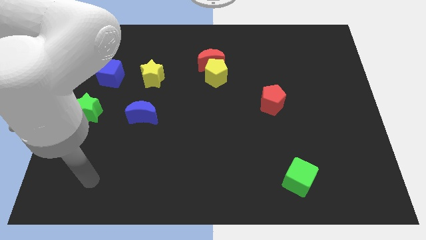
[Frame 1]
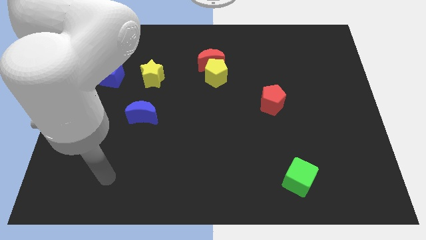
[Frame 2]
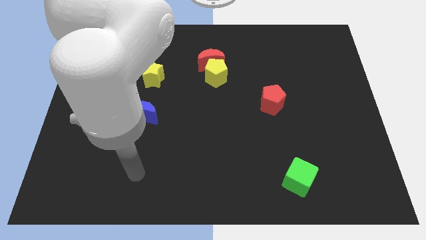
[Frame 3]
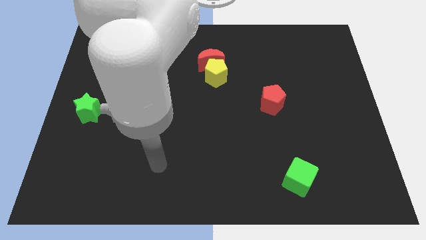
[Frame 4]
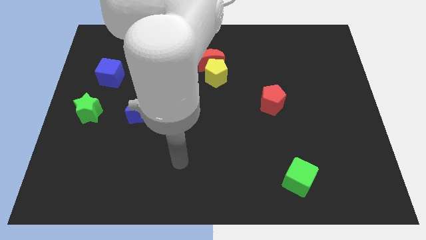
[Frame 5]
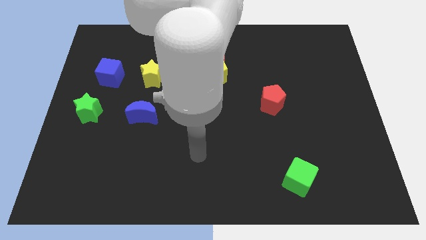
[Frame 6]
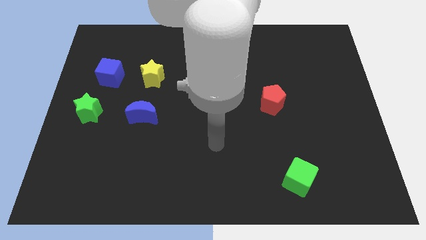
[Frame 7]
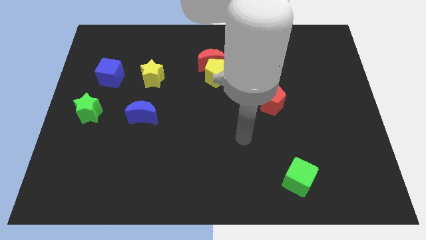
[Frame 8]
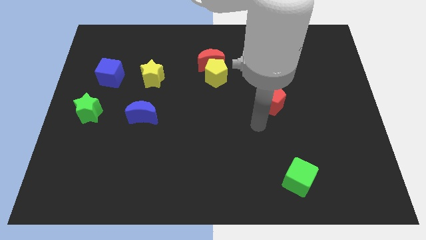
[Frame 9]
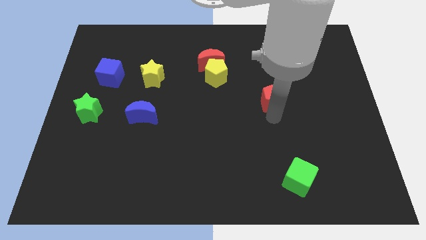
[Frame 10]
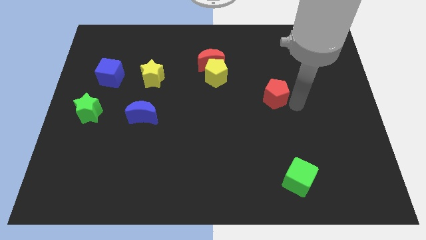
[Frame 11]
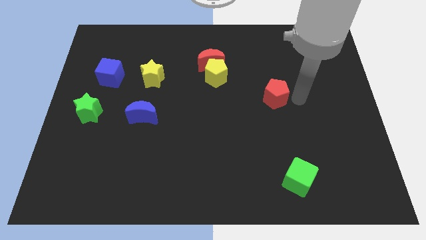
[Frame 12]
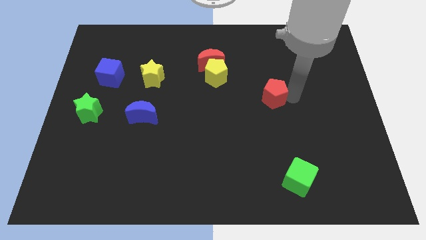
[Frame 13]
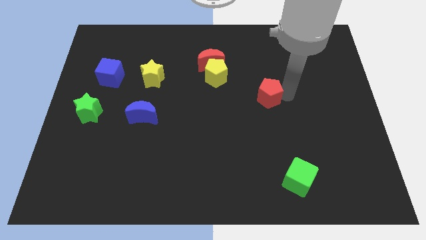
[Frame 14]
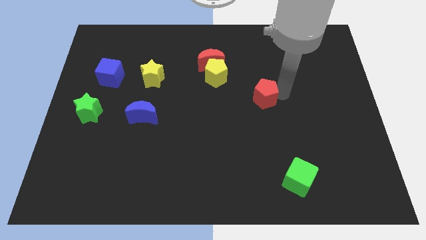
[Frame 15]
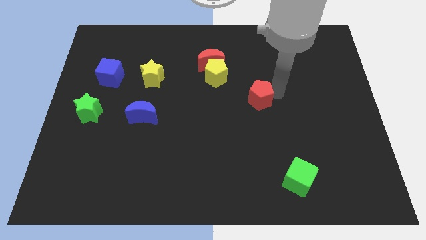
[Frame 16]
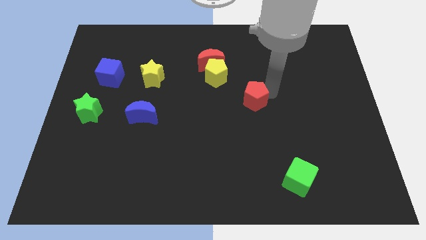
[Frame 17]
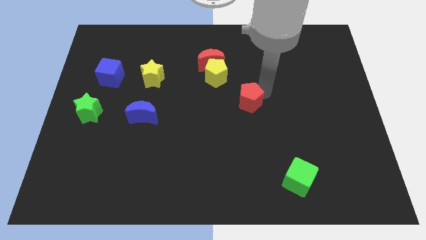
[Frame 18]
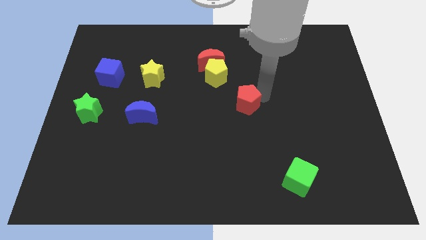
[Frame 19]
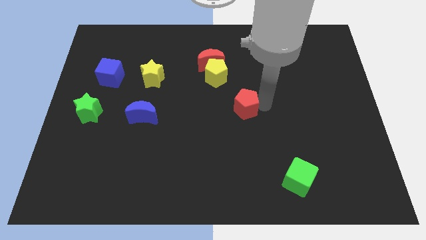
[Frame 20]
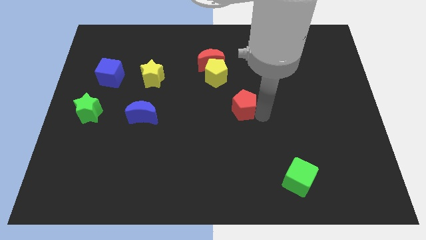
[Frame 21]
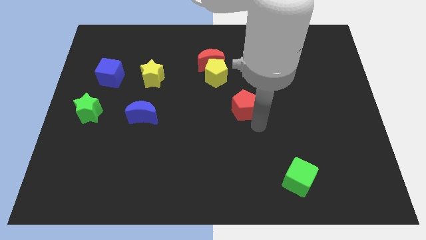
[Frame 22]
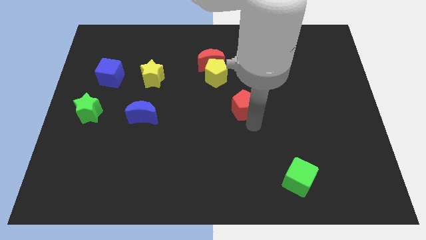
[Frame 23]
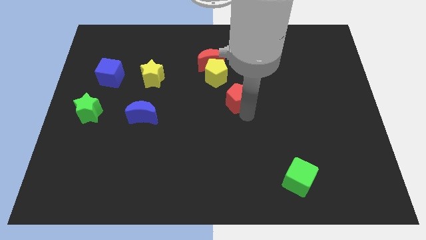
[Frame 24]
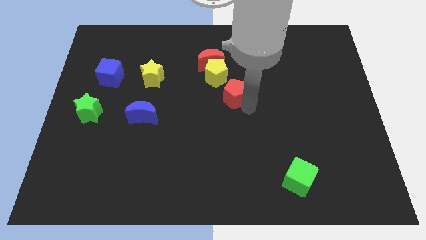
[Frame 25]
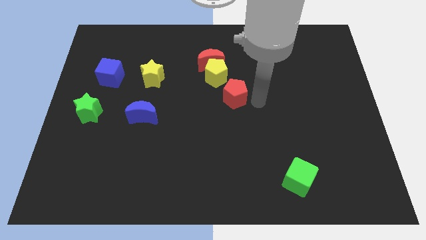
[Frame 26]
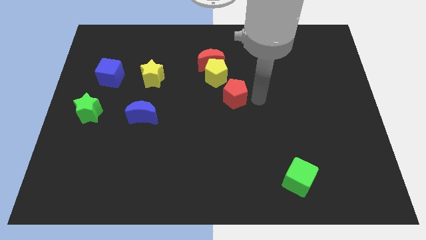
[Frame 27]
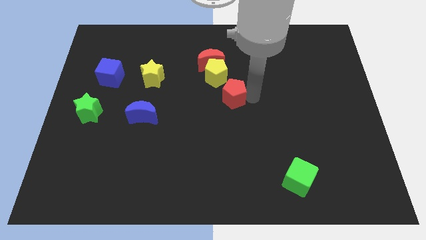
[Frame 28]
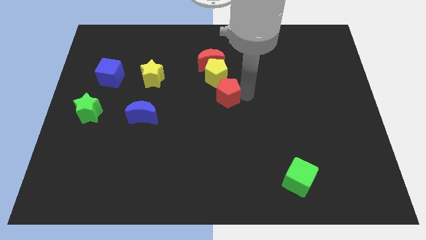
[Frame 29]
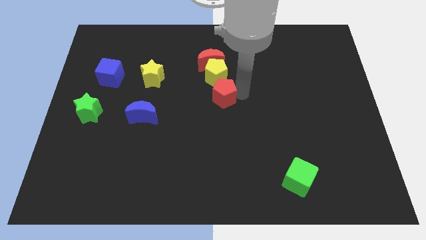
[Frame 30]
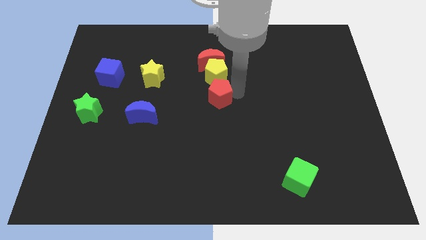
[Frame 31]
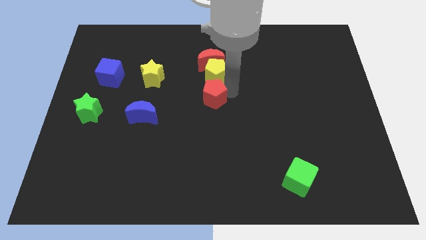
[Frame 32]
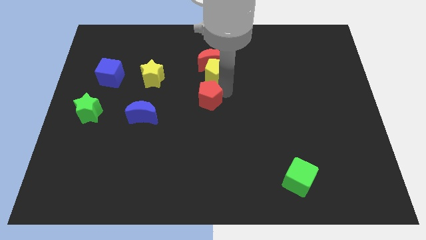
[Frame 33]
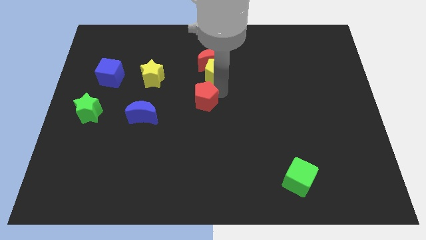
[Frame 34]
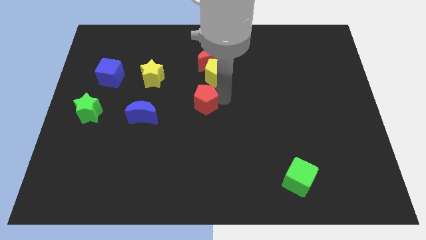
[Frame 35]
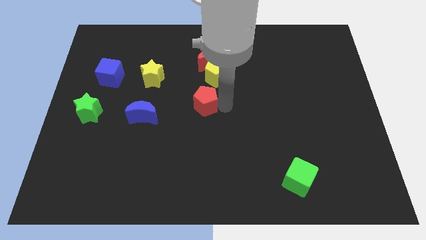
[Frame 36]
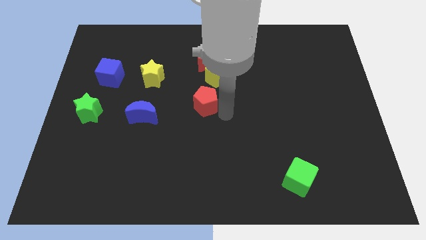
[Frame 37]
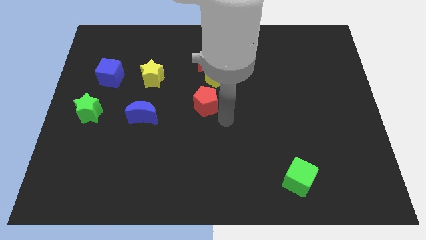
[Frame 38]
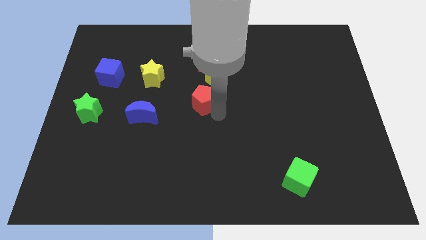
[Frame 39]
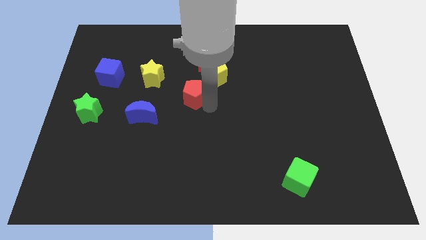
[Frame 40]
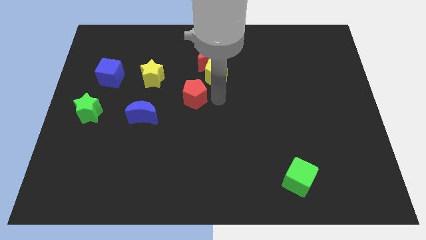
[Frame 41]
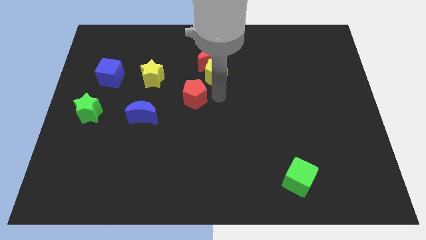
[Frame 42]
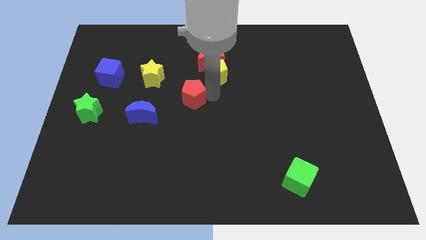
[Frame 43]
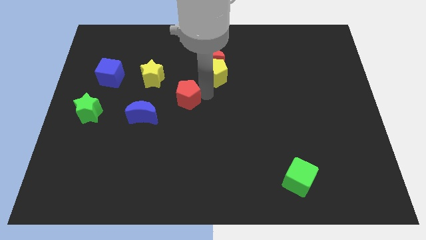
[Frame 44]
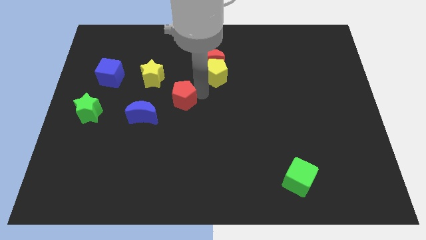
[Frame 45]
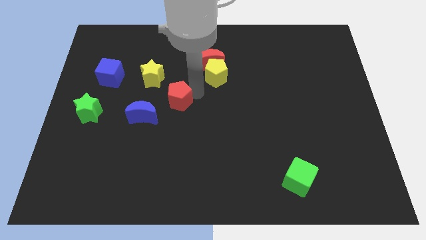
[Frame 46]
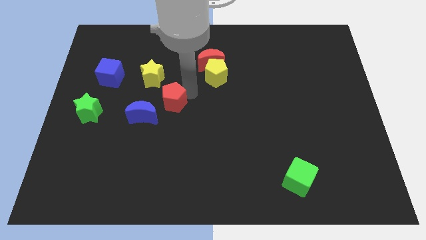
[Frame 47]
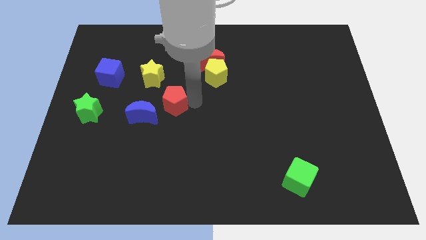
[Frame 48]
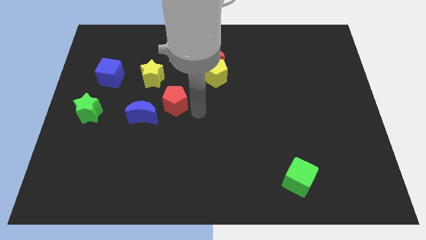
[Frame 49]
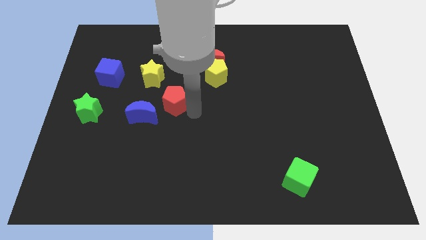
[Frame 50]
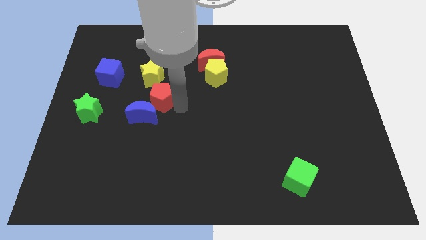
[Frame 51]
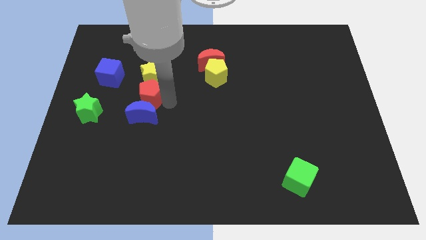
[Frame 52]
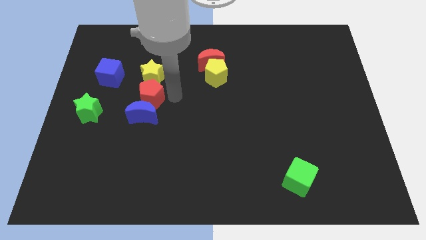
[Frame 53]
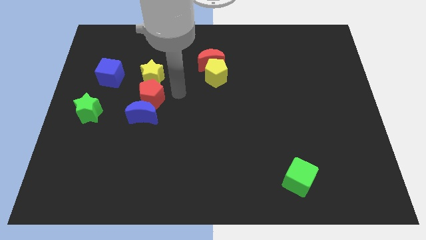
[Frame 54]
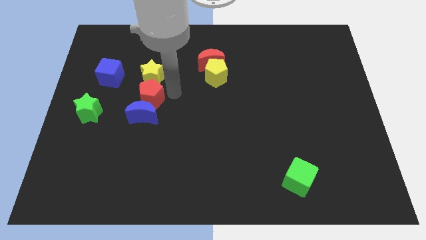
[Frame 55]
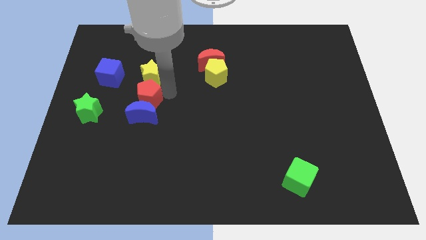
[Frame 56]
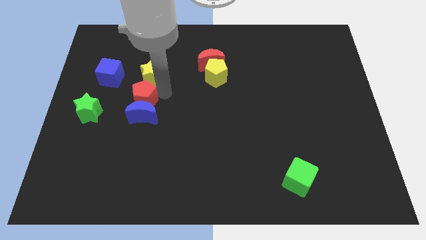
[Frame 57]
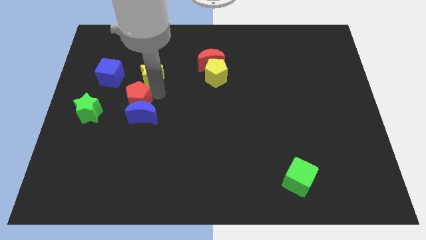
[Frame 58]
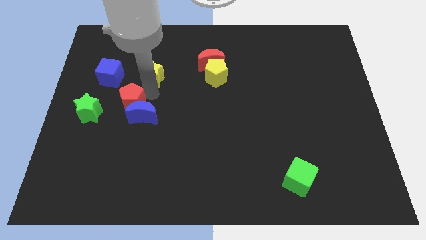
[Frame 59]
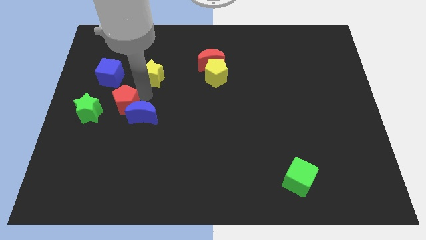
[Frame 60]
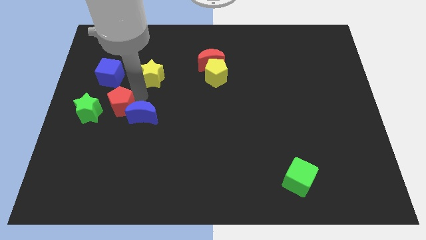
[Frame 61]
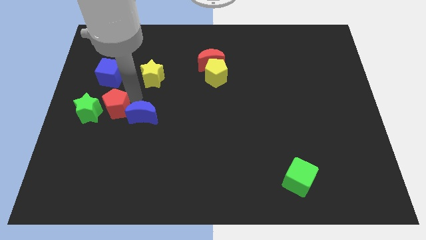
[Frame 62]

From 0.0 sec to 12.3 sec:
move the red pentagon towards the green star

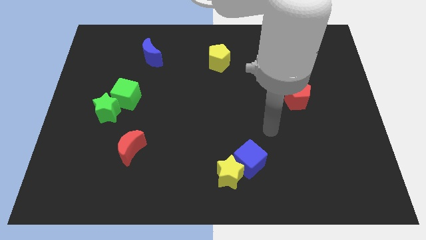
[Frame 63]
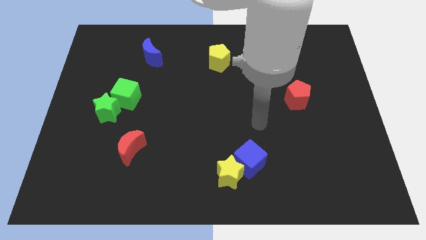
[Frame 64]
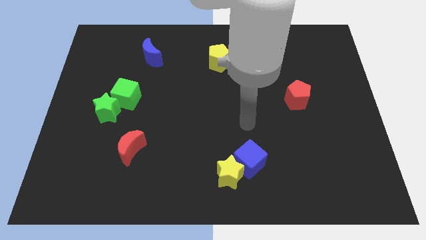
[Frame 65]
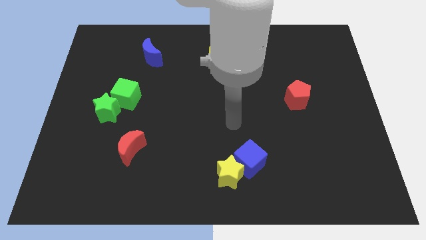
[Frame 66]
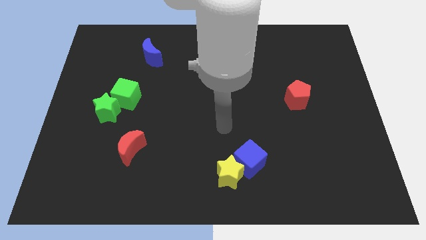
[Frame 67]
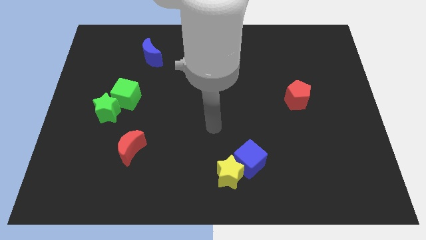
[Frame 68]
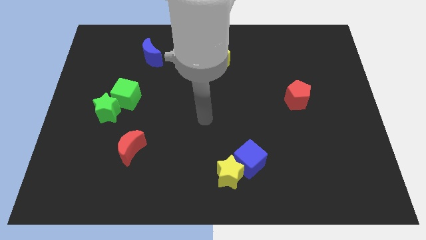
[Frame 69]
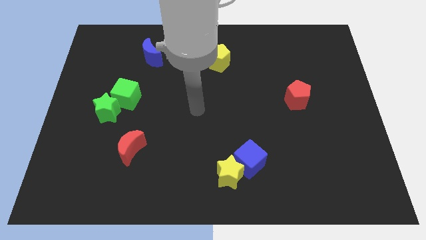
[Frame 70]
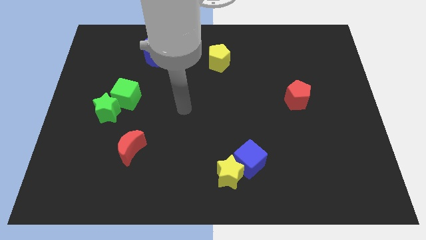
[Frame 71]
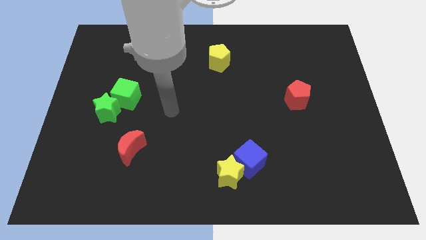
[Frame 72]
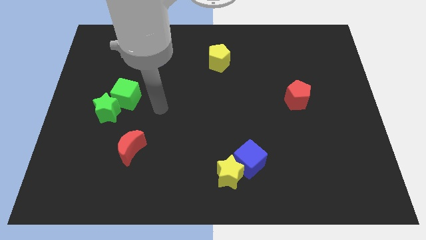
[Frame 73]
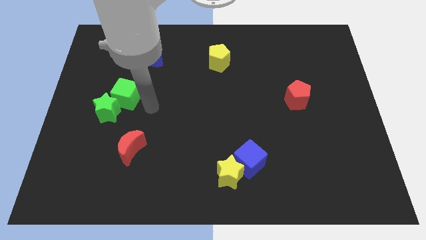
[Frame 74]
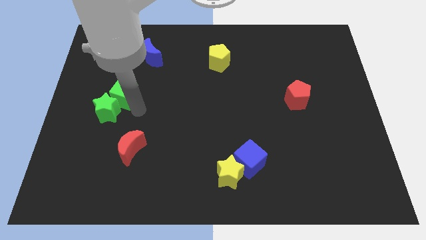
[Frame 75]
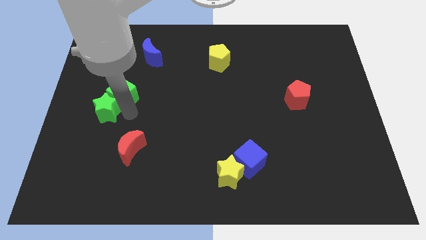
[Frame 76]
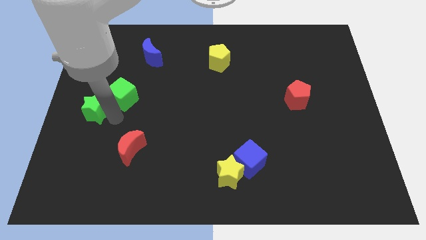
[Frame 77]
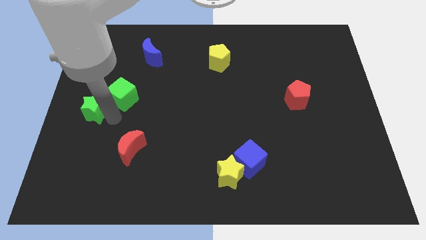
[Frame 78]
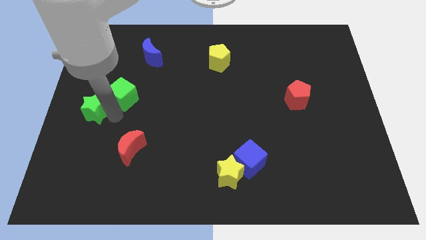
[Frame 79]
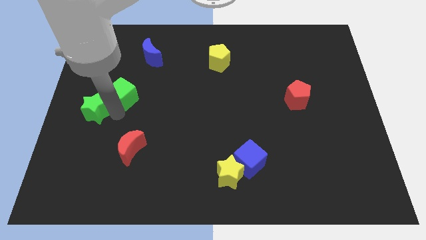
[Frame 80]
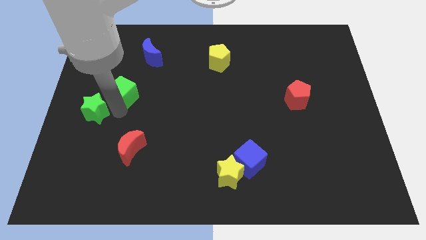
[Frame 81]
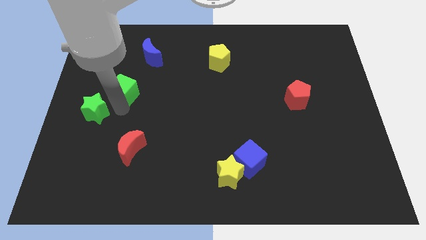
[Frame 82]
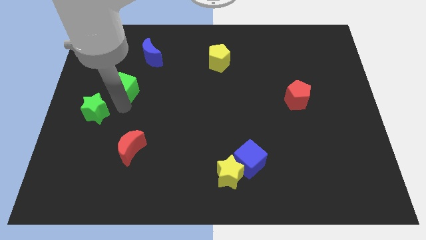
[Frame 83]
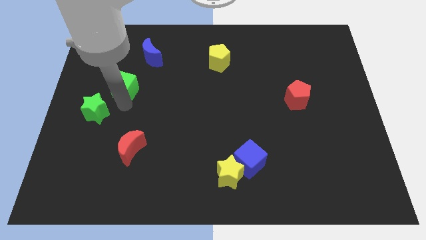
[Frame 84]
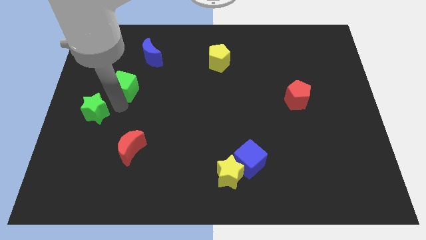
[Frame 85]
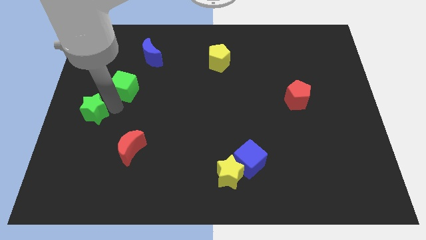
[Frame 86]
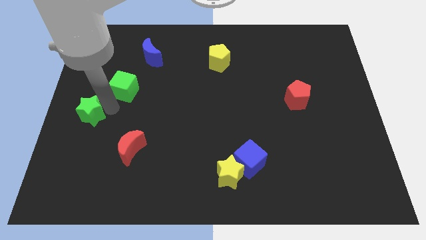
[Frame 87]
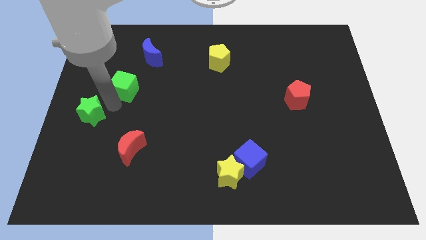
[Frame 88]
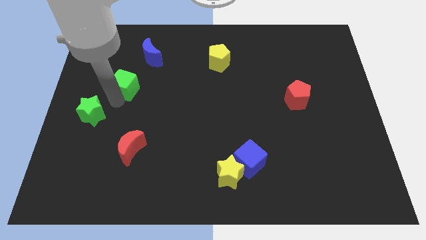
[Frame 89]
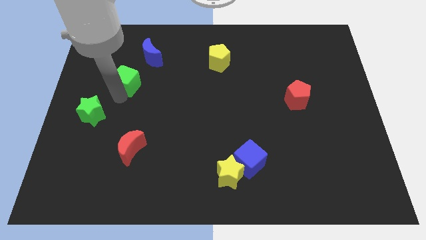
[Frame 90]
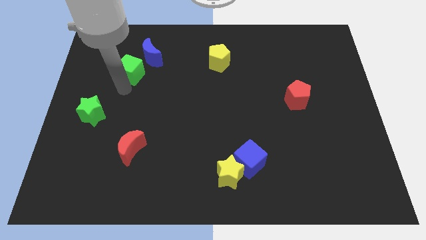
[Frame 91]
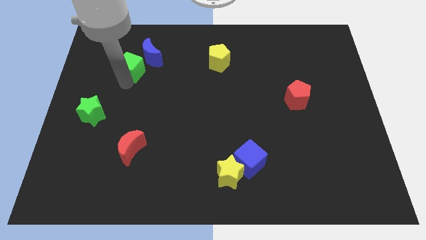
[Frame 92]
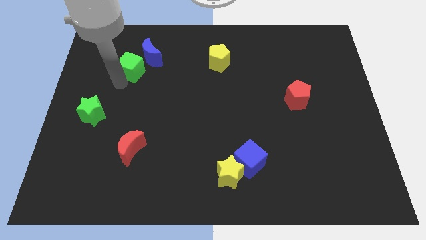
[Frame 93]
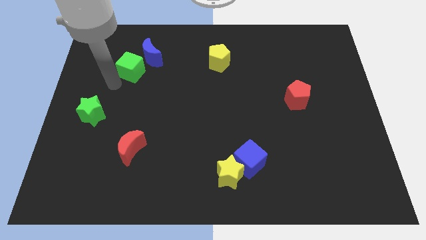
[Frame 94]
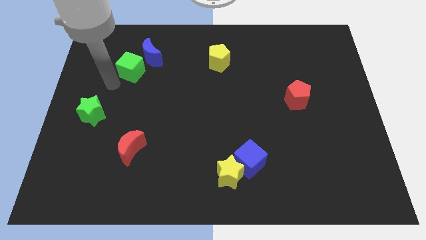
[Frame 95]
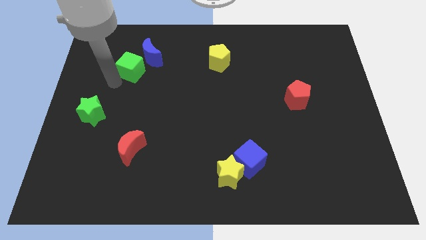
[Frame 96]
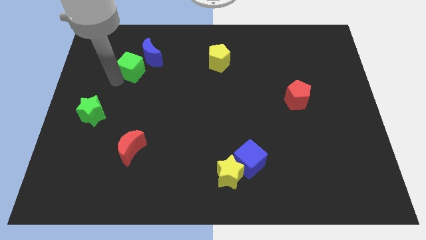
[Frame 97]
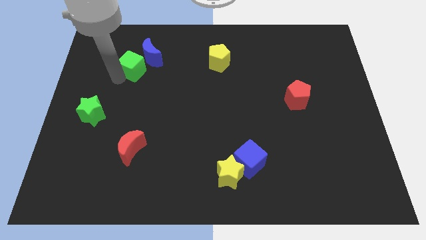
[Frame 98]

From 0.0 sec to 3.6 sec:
slide the green cube to the blue moon
